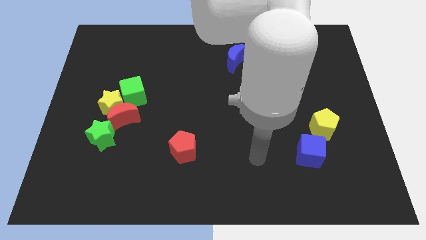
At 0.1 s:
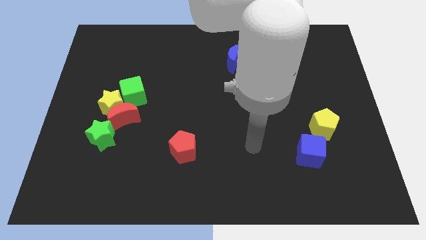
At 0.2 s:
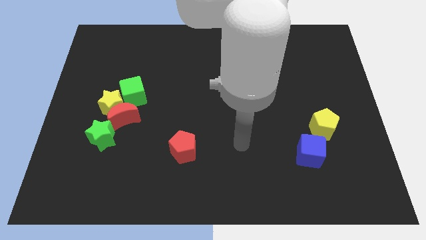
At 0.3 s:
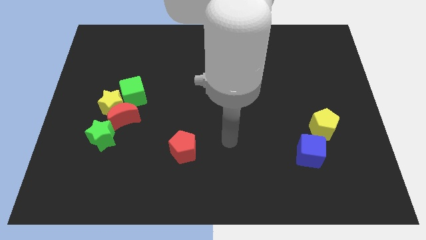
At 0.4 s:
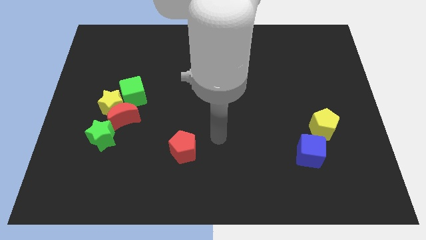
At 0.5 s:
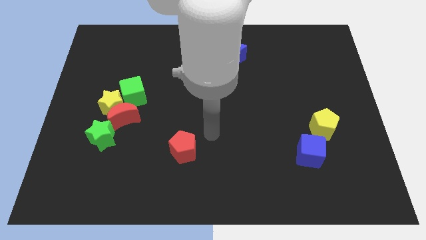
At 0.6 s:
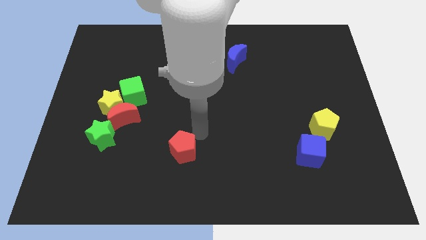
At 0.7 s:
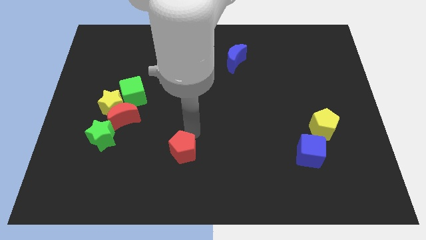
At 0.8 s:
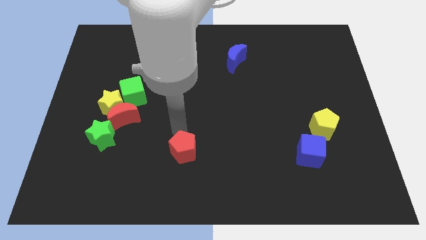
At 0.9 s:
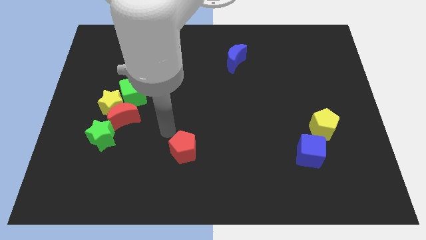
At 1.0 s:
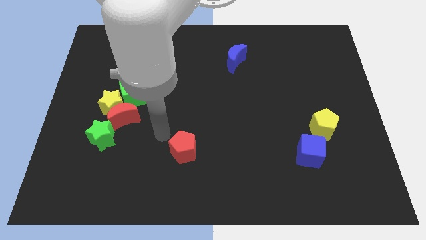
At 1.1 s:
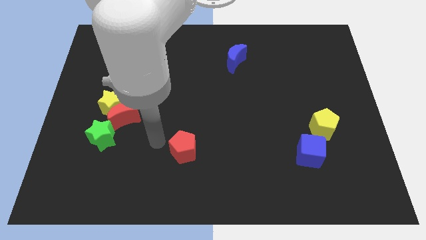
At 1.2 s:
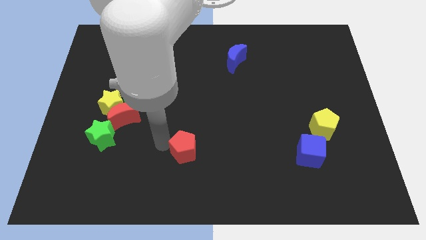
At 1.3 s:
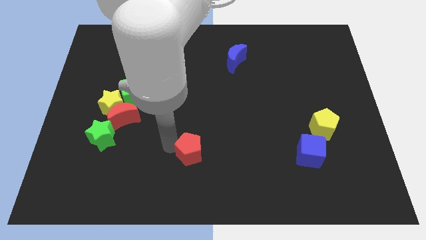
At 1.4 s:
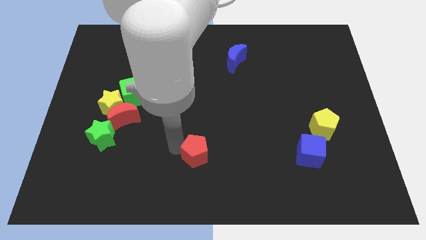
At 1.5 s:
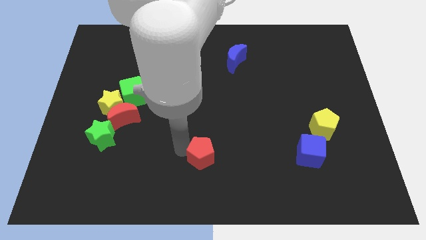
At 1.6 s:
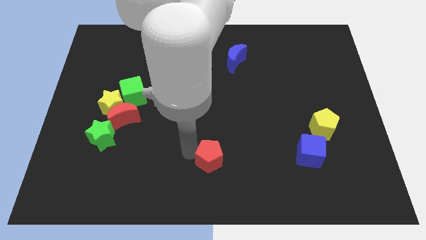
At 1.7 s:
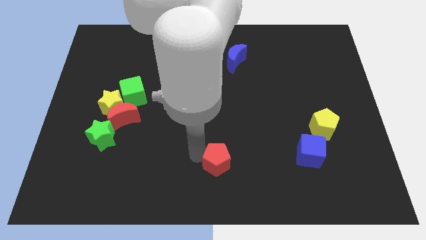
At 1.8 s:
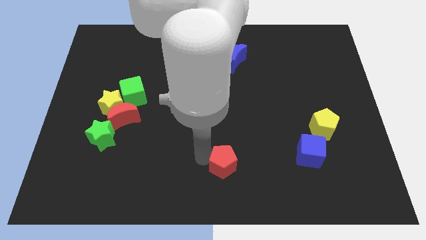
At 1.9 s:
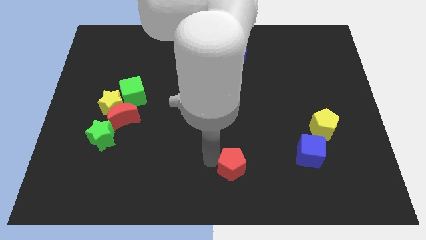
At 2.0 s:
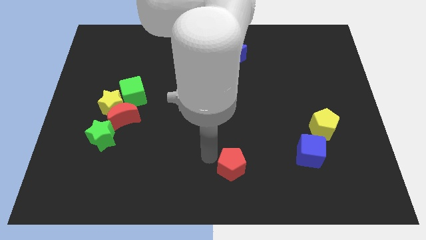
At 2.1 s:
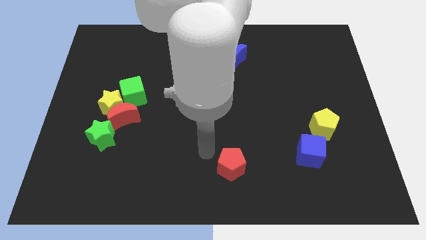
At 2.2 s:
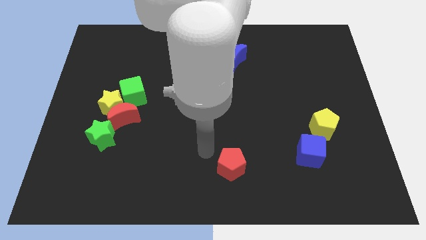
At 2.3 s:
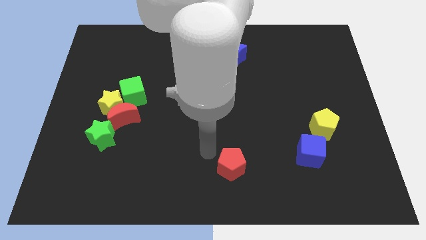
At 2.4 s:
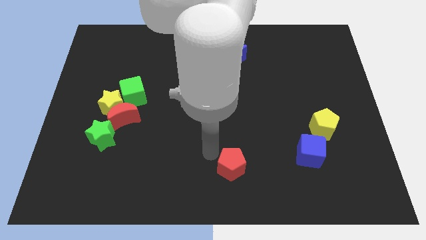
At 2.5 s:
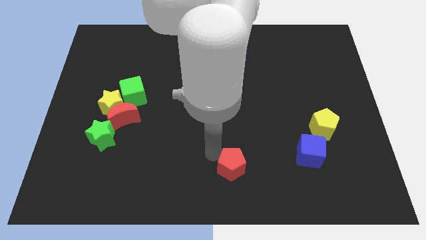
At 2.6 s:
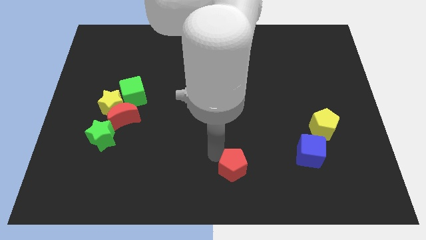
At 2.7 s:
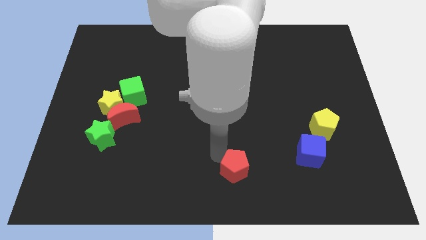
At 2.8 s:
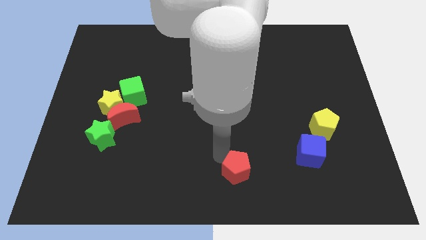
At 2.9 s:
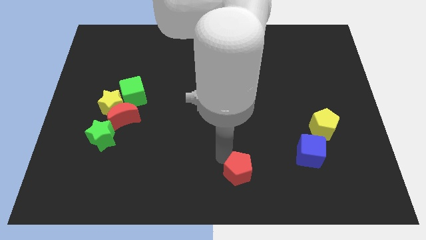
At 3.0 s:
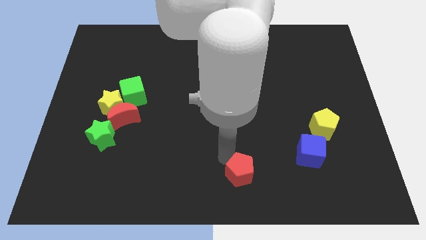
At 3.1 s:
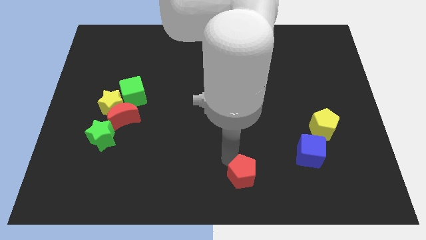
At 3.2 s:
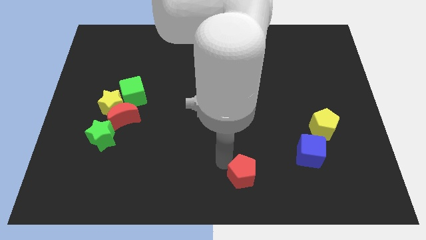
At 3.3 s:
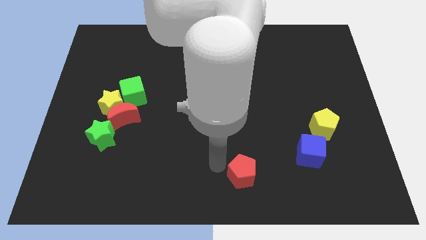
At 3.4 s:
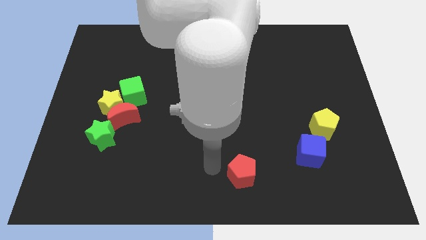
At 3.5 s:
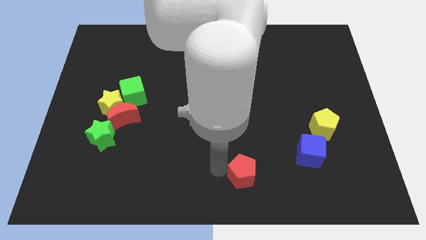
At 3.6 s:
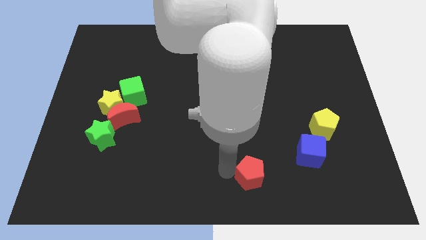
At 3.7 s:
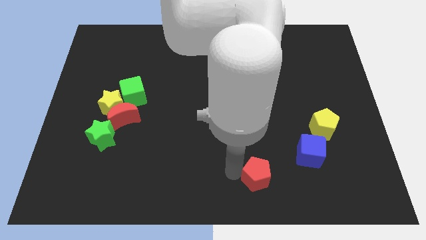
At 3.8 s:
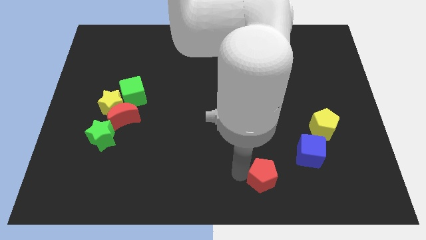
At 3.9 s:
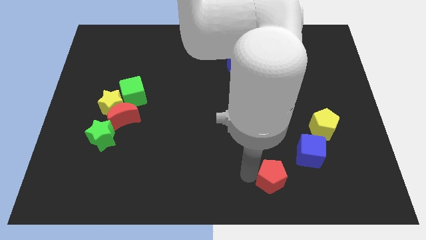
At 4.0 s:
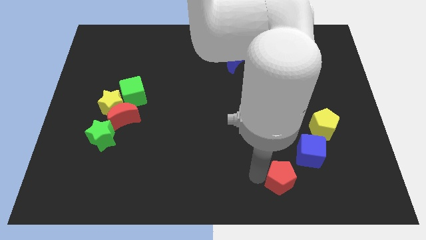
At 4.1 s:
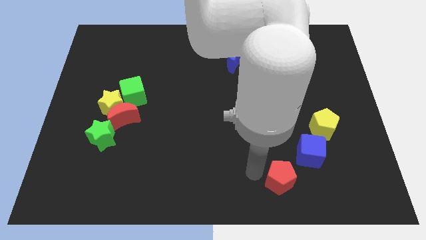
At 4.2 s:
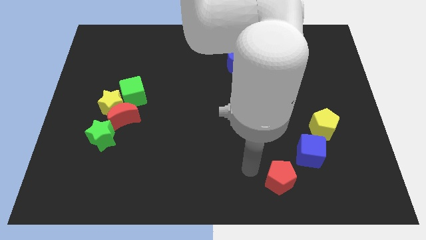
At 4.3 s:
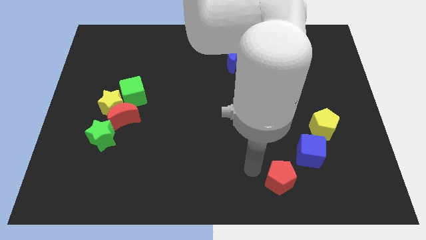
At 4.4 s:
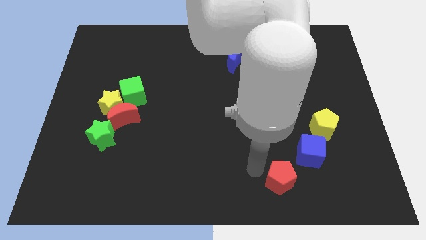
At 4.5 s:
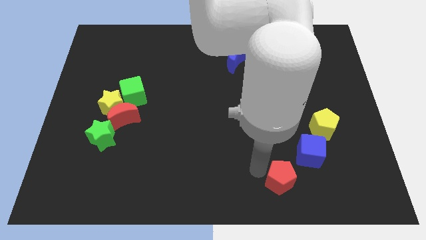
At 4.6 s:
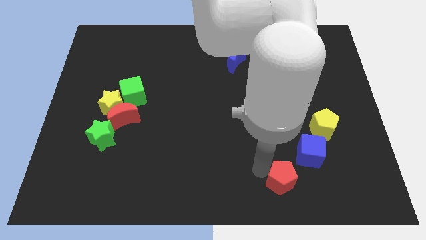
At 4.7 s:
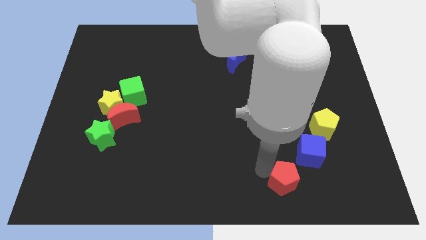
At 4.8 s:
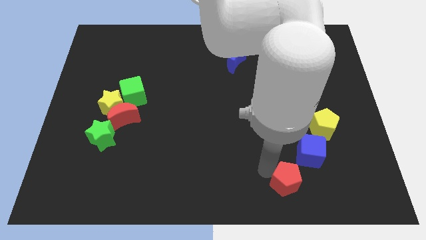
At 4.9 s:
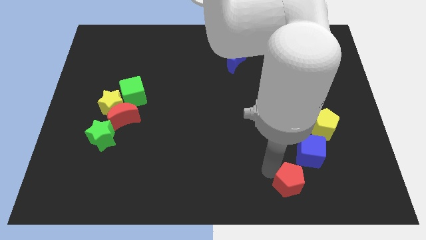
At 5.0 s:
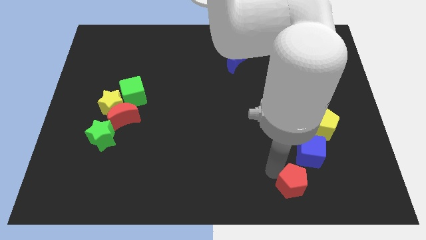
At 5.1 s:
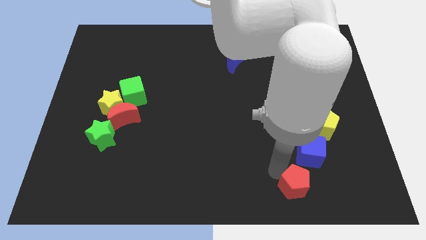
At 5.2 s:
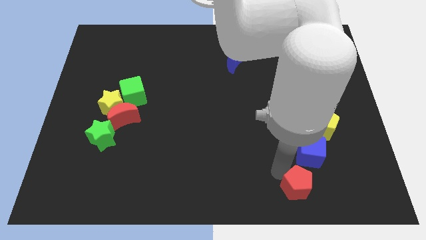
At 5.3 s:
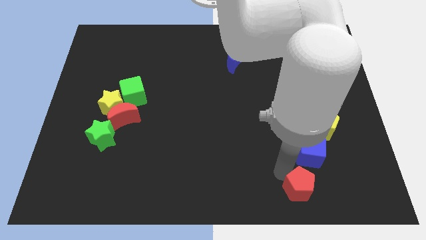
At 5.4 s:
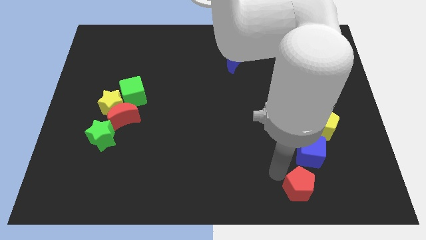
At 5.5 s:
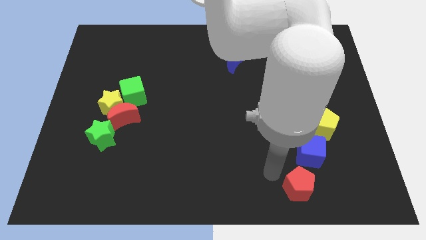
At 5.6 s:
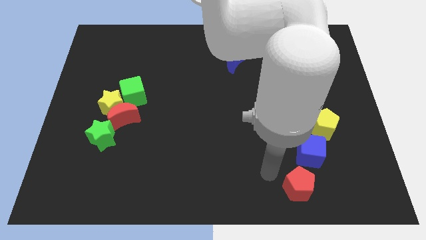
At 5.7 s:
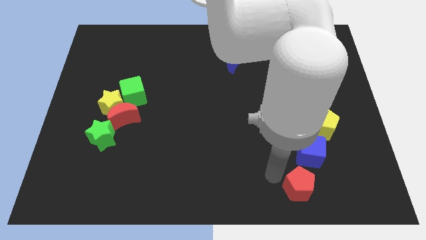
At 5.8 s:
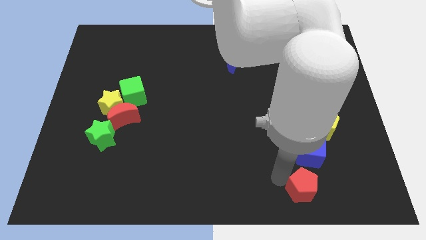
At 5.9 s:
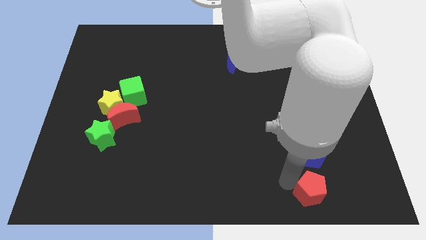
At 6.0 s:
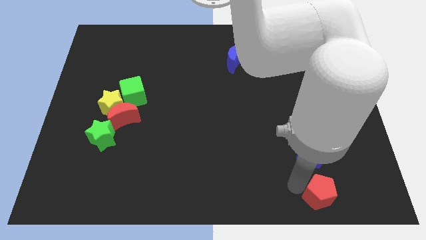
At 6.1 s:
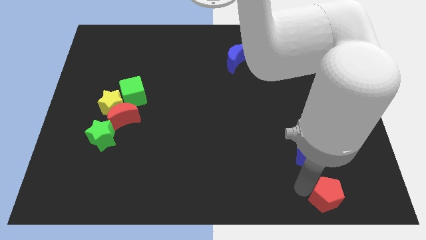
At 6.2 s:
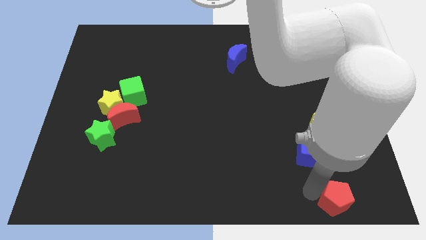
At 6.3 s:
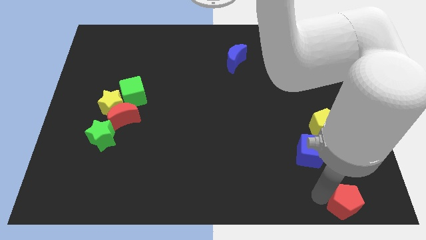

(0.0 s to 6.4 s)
push the red pentagon to the bottom right
